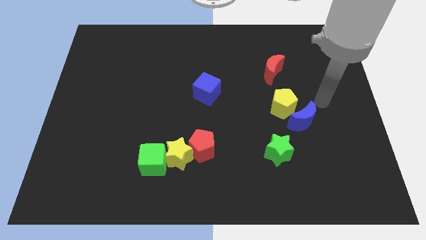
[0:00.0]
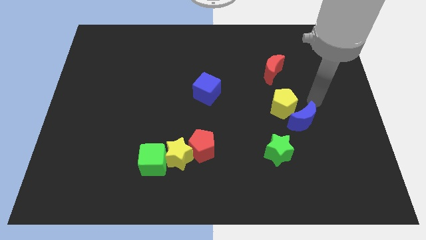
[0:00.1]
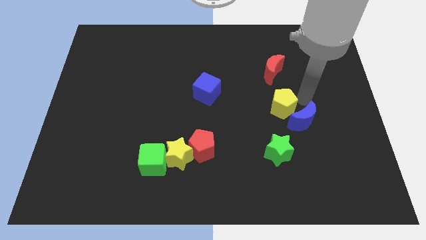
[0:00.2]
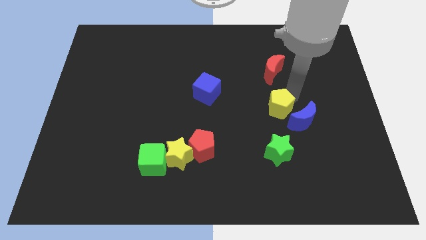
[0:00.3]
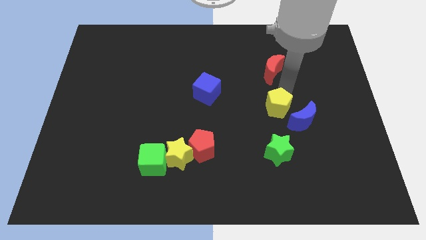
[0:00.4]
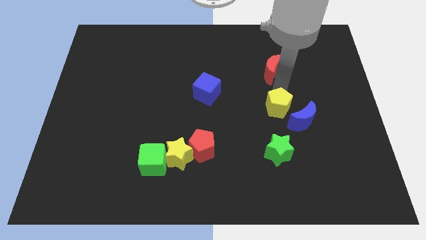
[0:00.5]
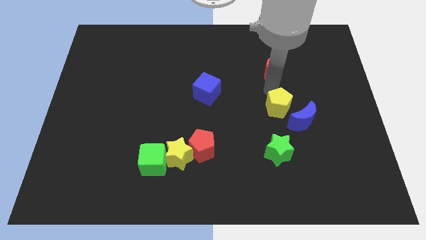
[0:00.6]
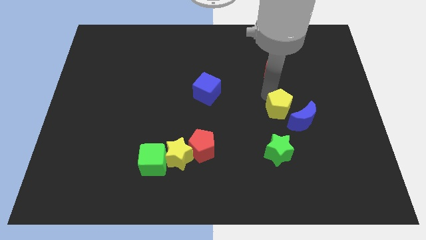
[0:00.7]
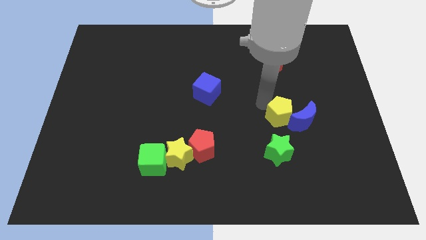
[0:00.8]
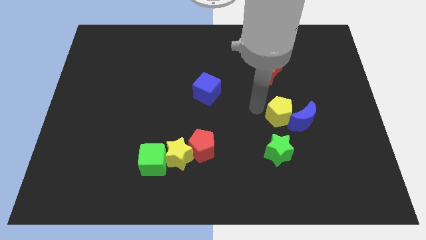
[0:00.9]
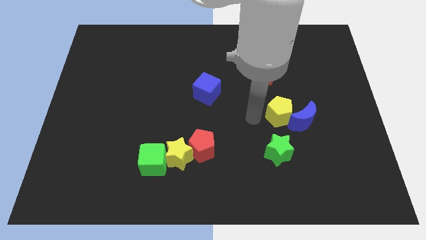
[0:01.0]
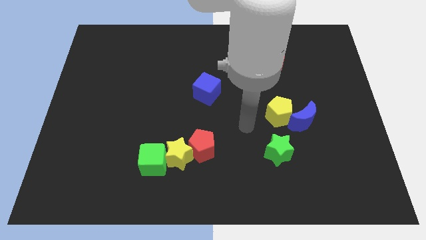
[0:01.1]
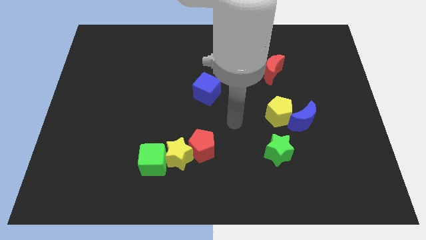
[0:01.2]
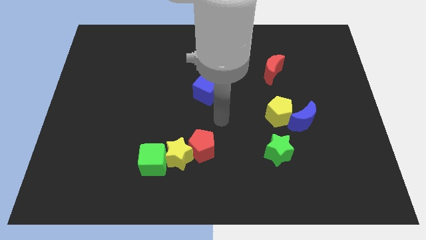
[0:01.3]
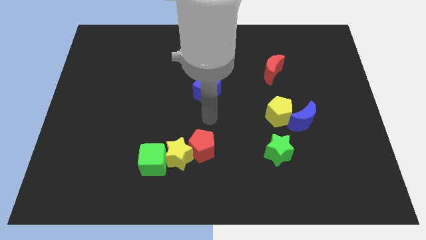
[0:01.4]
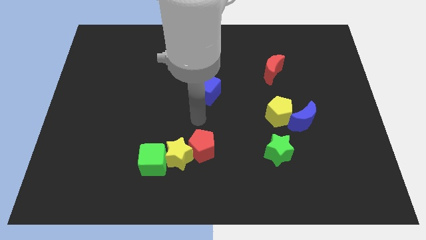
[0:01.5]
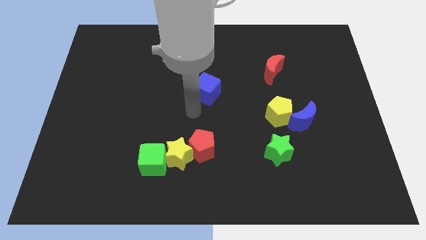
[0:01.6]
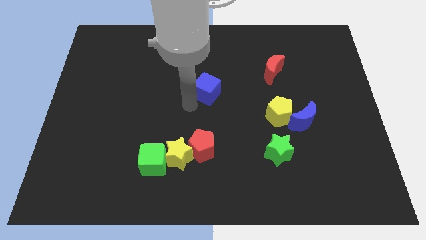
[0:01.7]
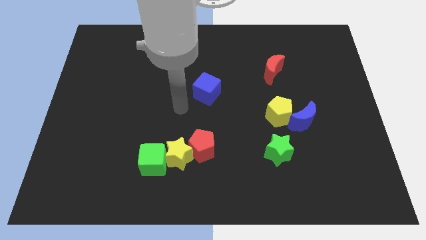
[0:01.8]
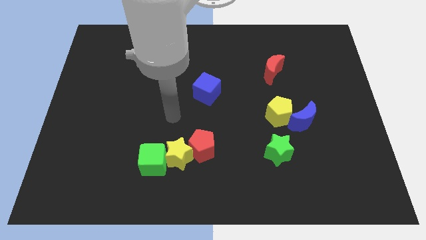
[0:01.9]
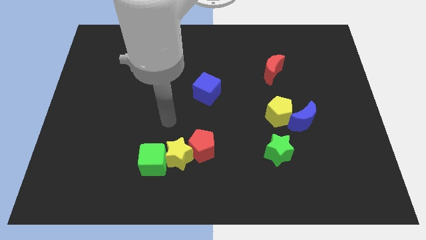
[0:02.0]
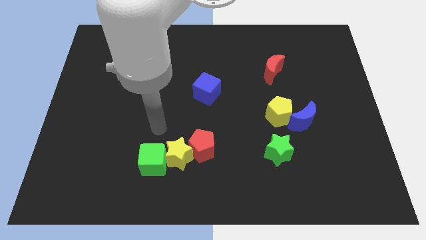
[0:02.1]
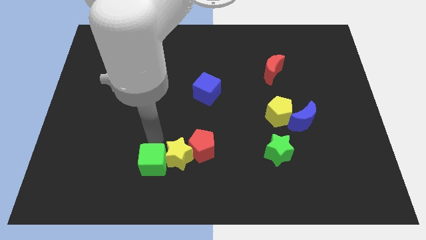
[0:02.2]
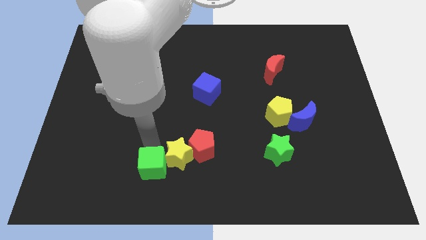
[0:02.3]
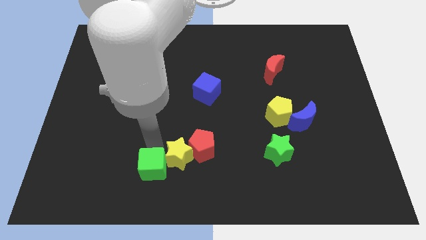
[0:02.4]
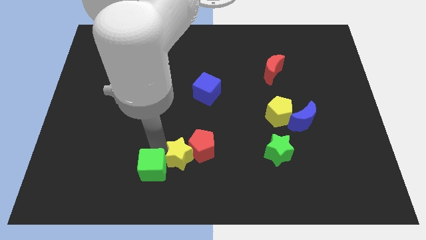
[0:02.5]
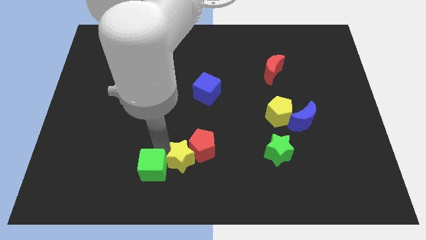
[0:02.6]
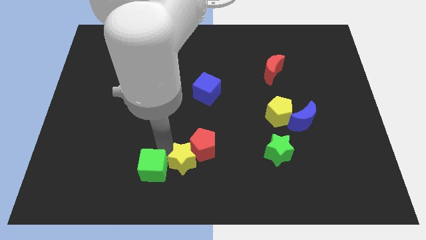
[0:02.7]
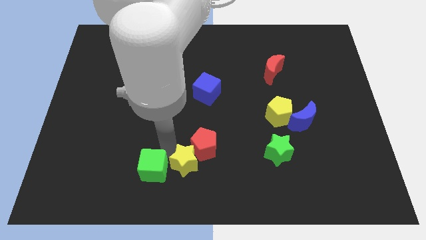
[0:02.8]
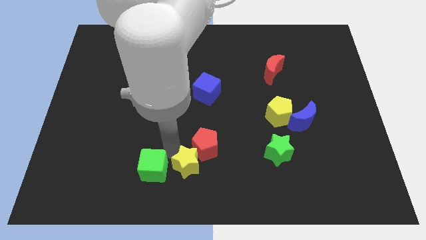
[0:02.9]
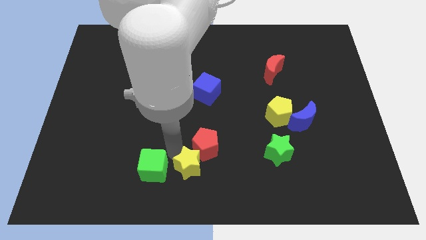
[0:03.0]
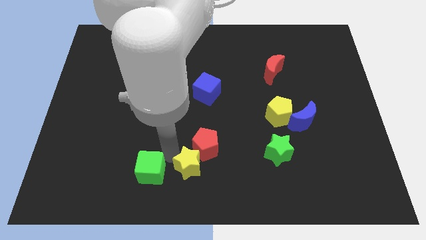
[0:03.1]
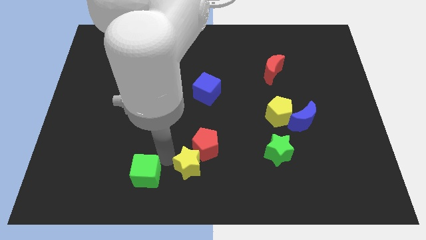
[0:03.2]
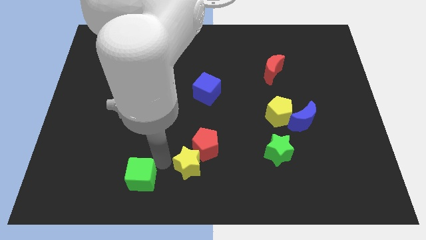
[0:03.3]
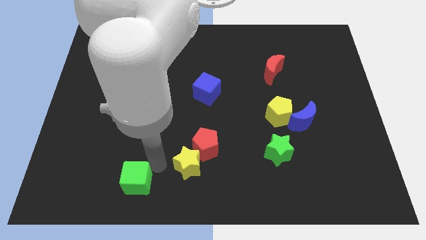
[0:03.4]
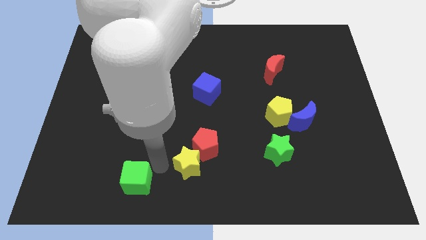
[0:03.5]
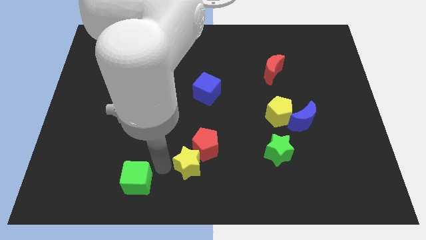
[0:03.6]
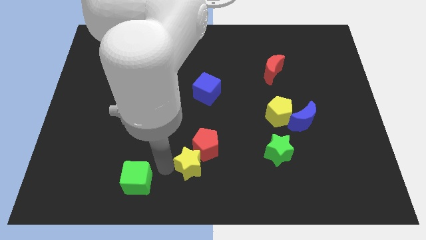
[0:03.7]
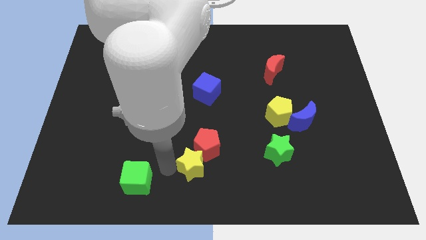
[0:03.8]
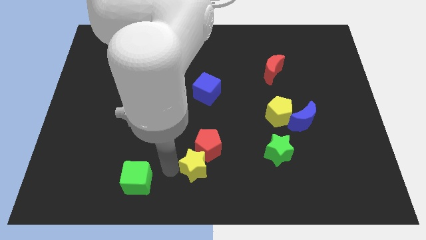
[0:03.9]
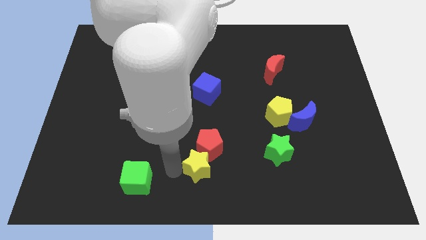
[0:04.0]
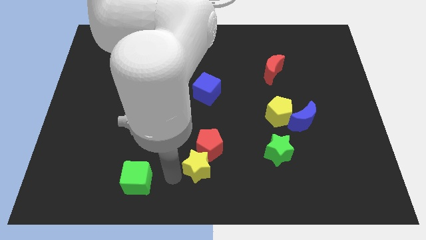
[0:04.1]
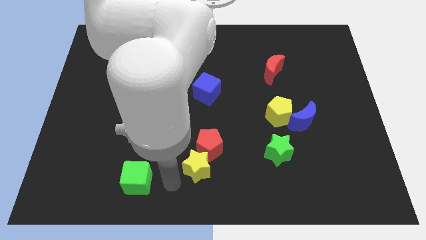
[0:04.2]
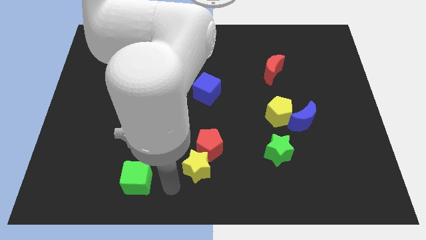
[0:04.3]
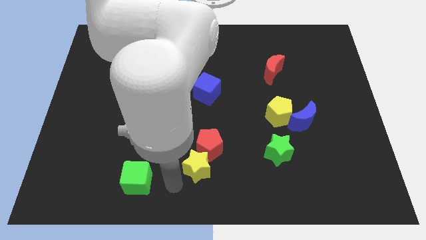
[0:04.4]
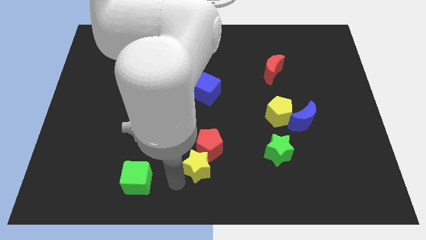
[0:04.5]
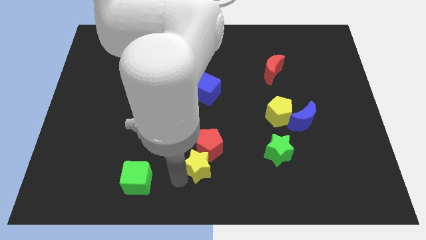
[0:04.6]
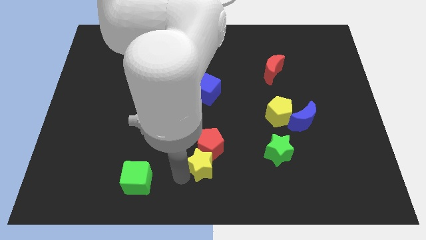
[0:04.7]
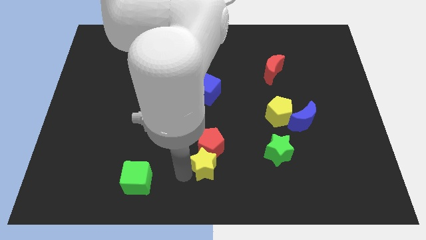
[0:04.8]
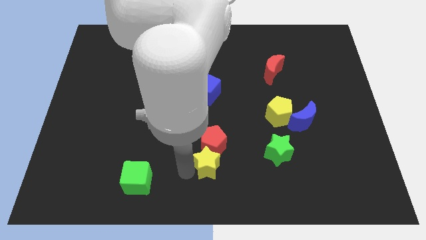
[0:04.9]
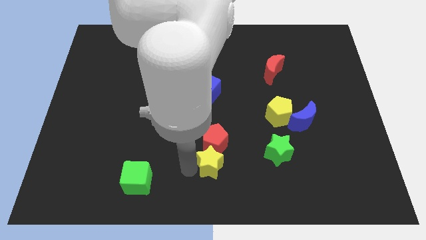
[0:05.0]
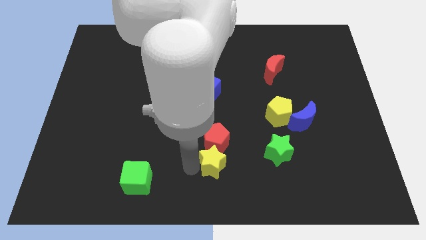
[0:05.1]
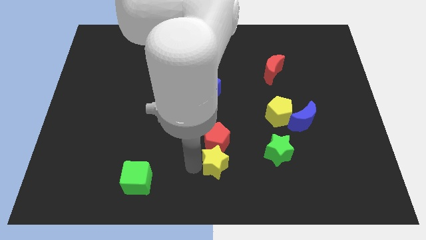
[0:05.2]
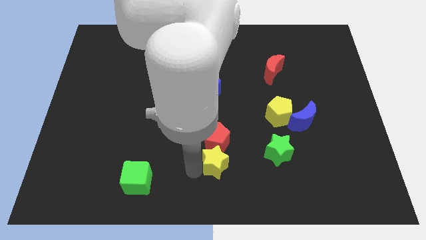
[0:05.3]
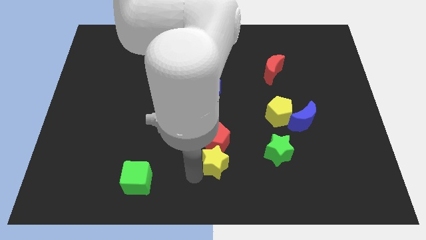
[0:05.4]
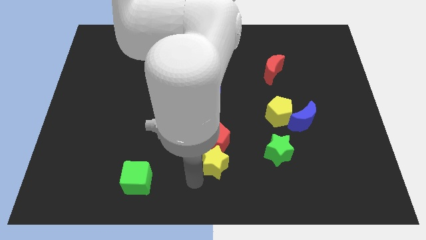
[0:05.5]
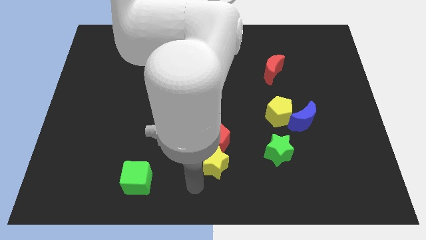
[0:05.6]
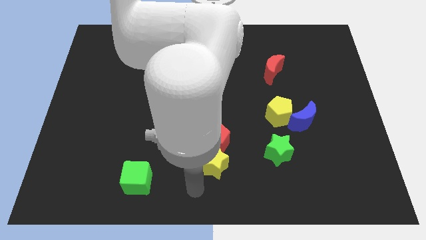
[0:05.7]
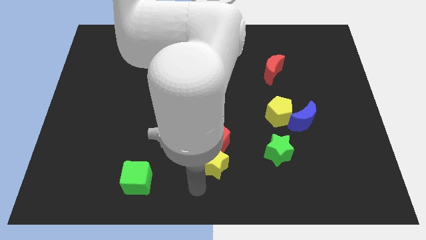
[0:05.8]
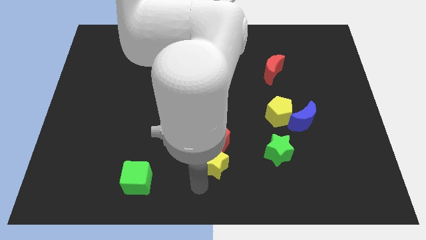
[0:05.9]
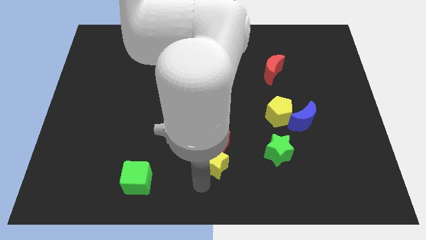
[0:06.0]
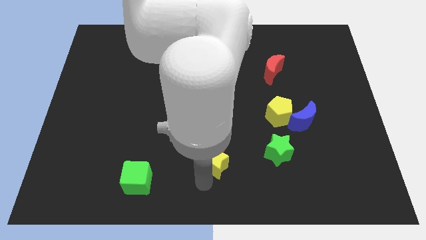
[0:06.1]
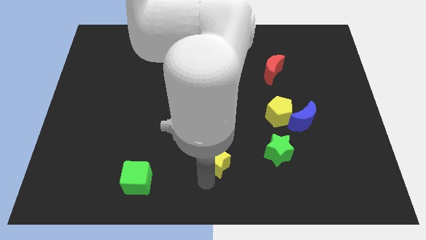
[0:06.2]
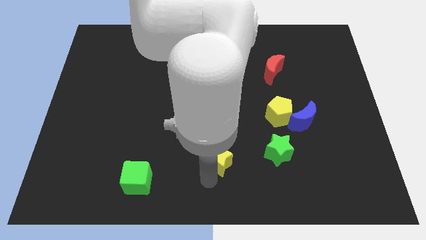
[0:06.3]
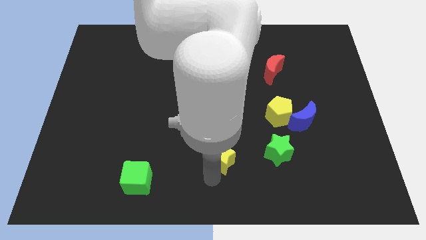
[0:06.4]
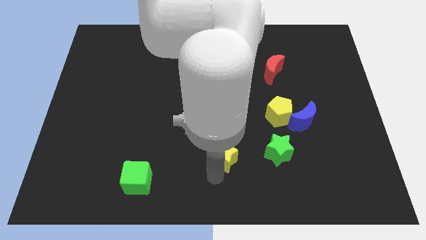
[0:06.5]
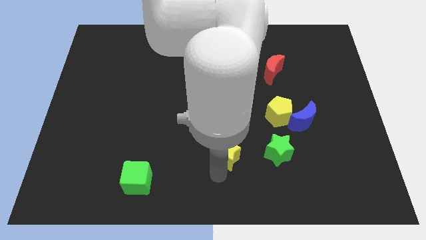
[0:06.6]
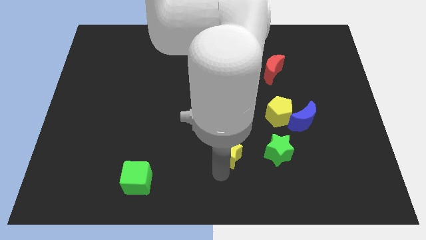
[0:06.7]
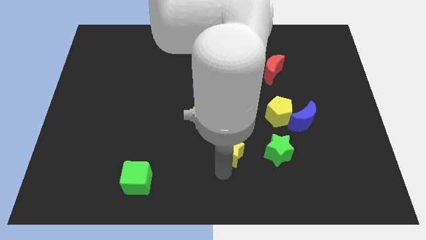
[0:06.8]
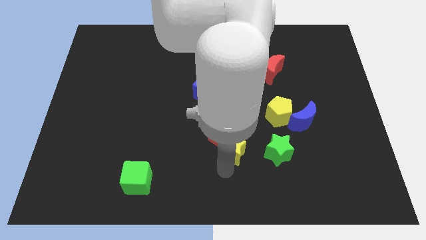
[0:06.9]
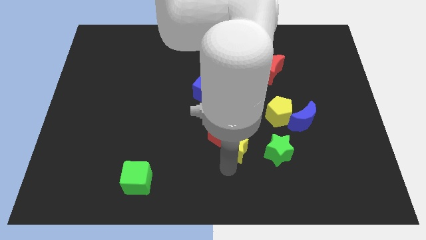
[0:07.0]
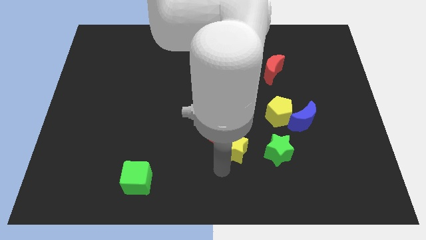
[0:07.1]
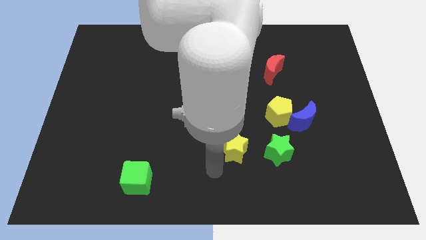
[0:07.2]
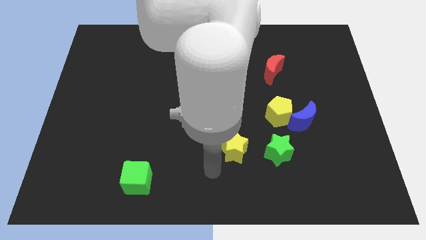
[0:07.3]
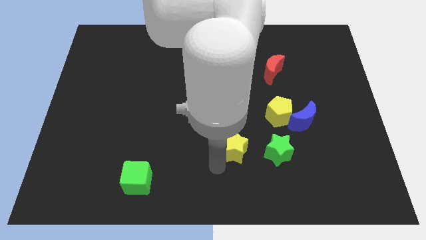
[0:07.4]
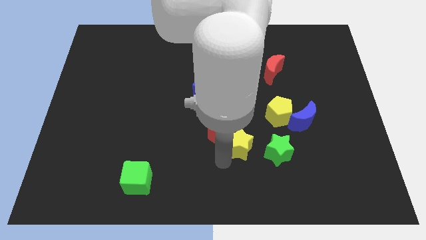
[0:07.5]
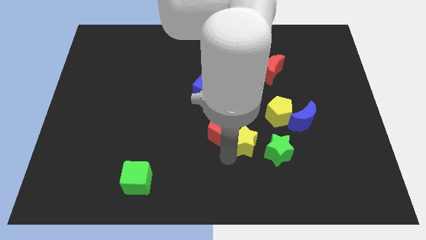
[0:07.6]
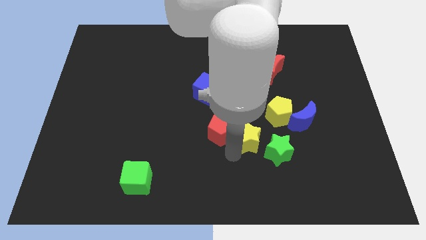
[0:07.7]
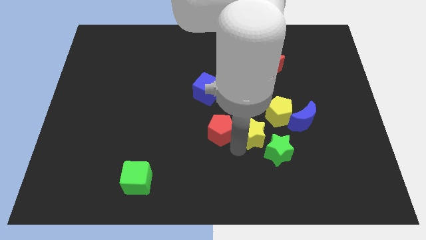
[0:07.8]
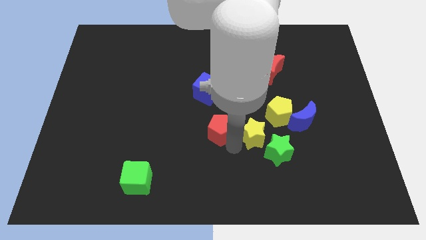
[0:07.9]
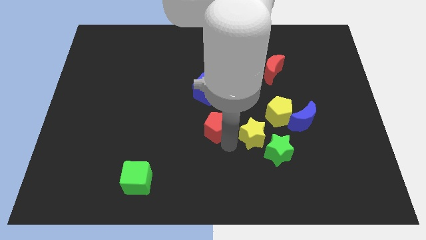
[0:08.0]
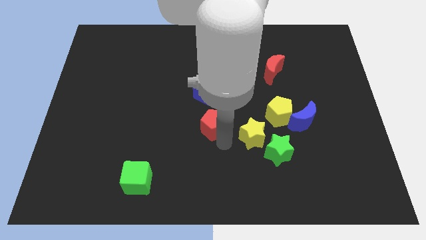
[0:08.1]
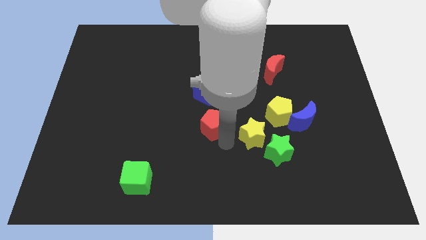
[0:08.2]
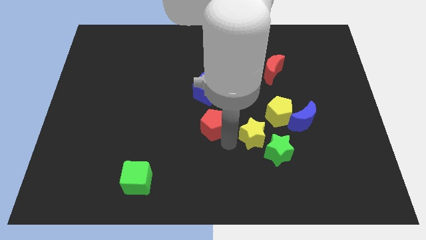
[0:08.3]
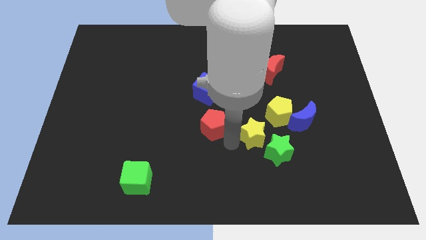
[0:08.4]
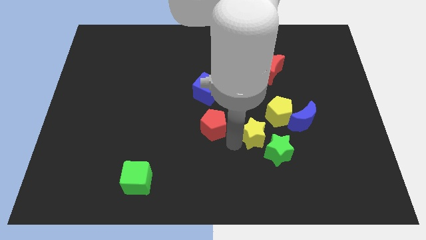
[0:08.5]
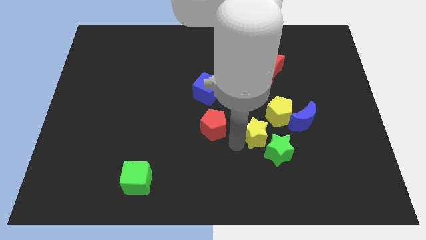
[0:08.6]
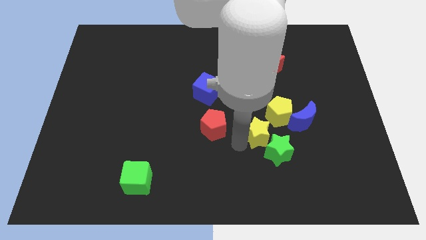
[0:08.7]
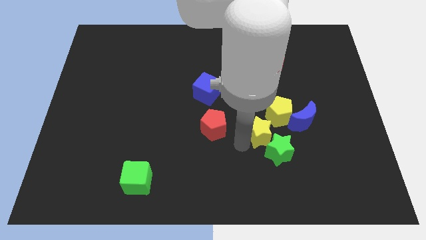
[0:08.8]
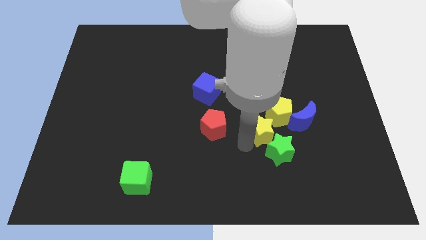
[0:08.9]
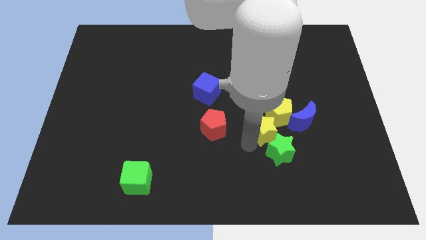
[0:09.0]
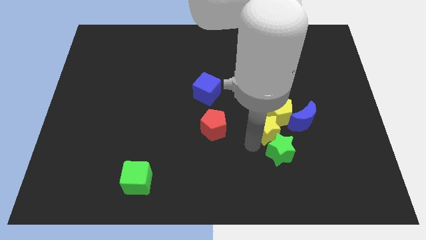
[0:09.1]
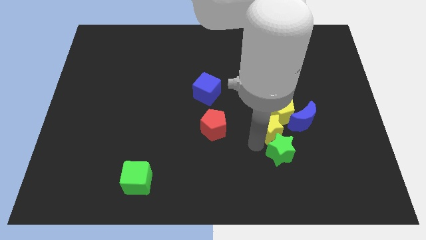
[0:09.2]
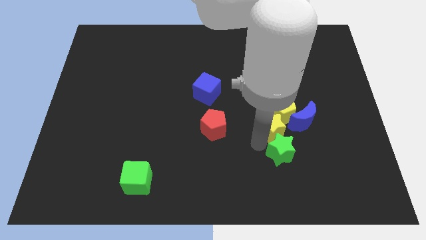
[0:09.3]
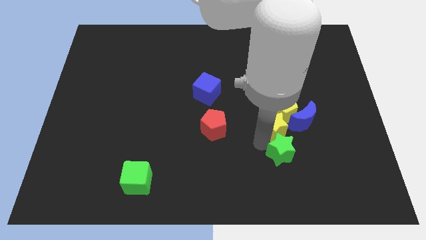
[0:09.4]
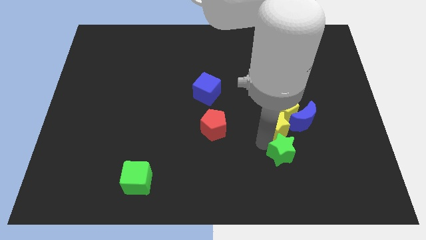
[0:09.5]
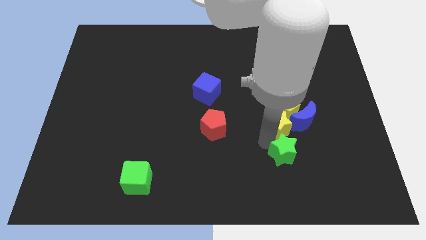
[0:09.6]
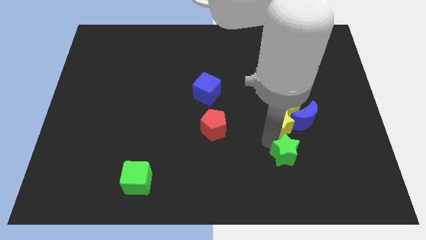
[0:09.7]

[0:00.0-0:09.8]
move the yellow star to the blue moon
